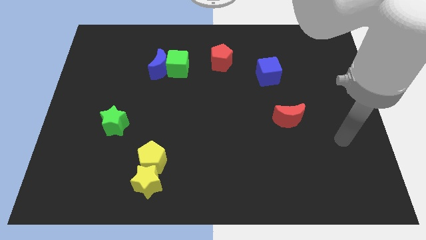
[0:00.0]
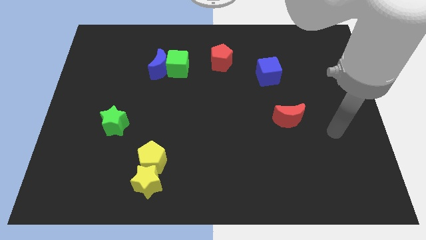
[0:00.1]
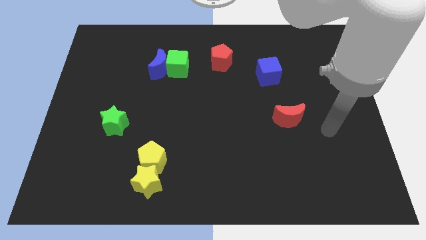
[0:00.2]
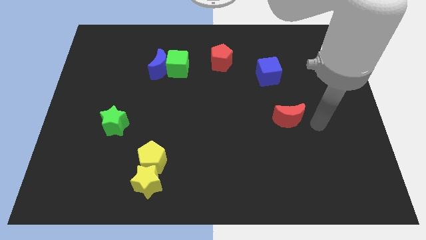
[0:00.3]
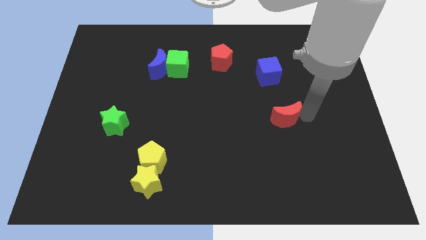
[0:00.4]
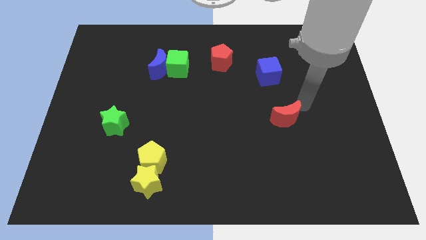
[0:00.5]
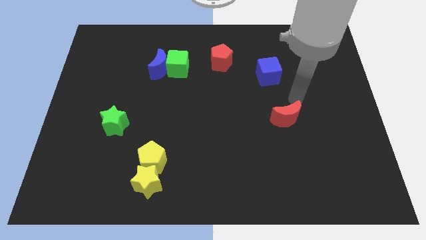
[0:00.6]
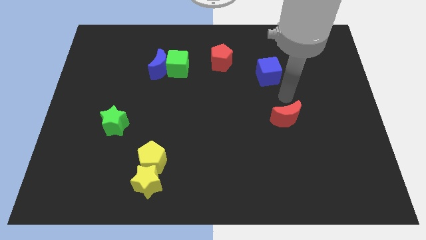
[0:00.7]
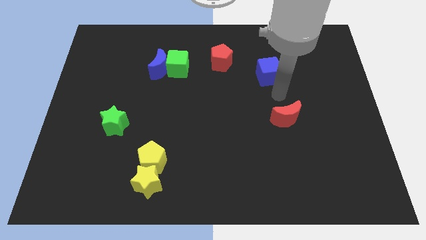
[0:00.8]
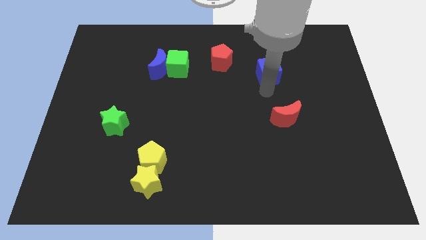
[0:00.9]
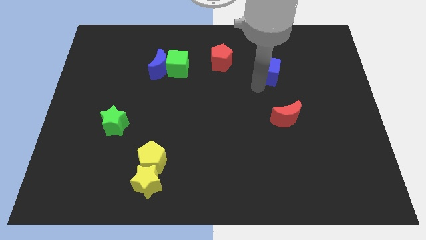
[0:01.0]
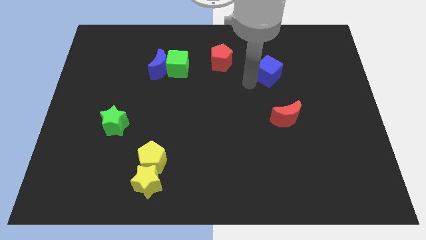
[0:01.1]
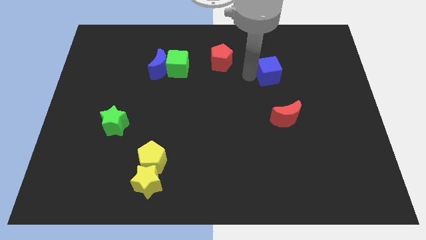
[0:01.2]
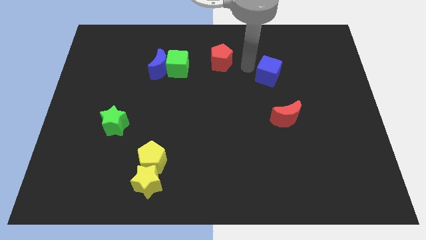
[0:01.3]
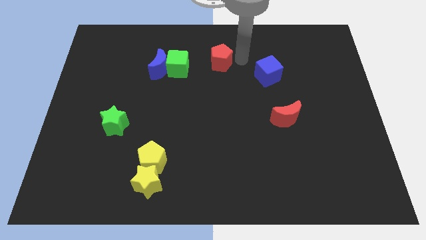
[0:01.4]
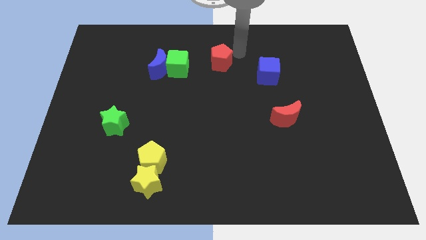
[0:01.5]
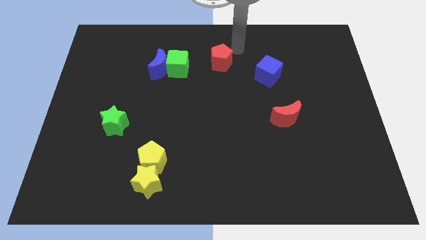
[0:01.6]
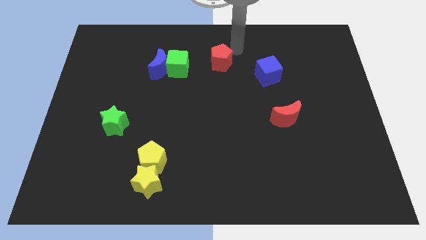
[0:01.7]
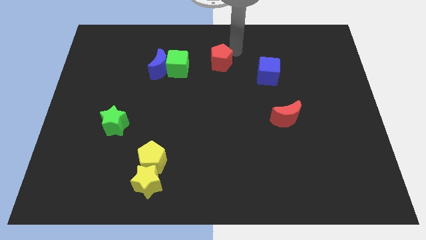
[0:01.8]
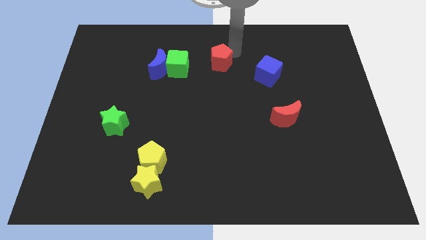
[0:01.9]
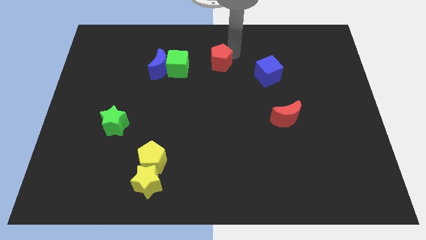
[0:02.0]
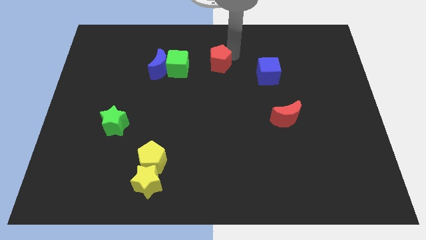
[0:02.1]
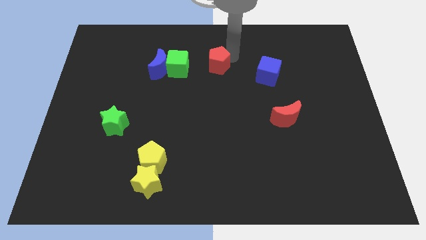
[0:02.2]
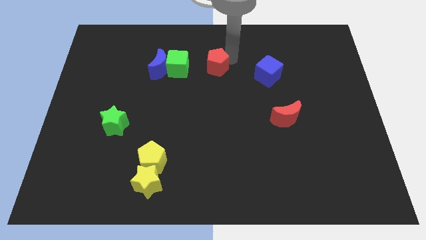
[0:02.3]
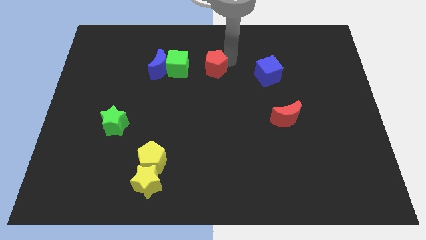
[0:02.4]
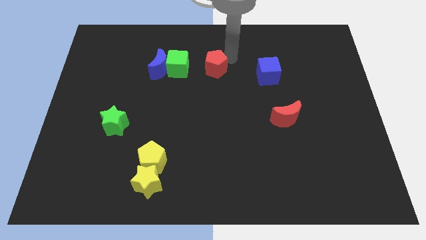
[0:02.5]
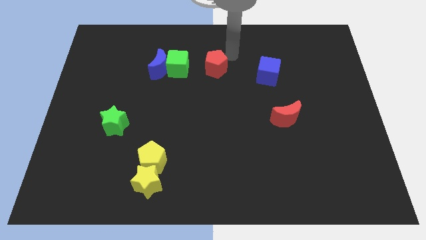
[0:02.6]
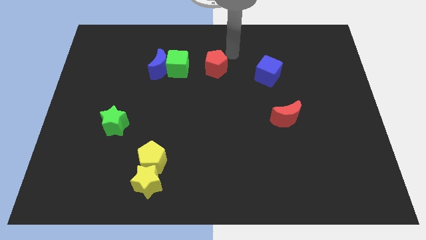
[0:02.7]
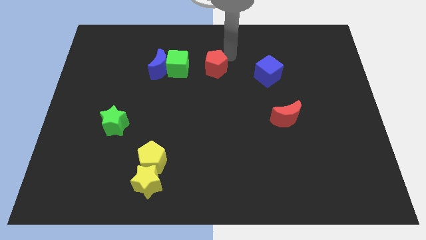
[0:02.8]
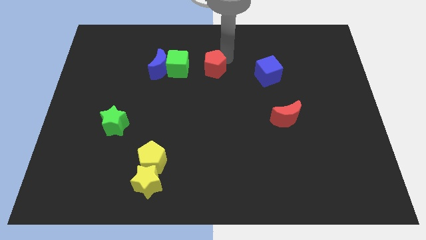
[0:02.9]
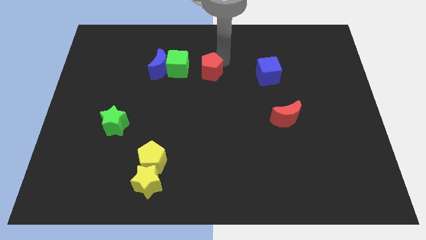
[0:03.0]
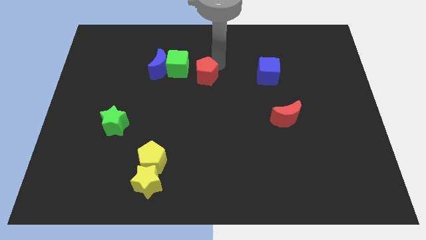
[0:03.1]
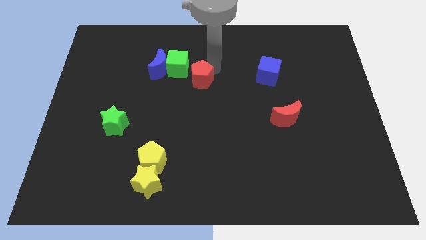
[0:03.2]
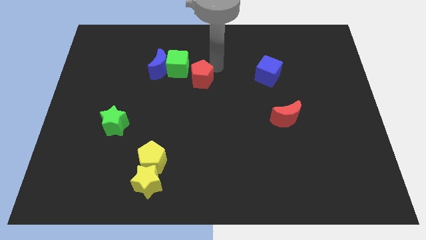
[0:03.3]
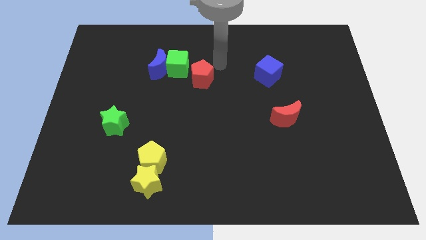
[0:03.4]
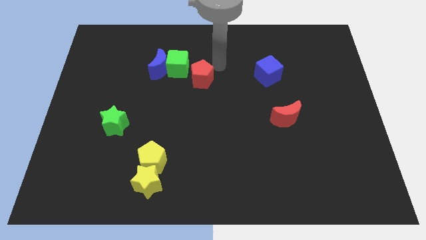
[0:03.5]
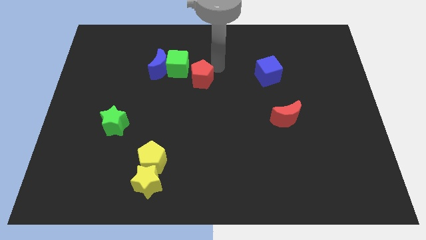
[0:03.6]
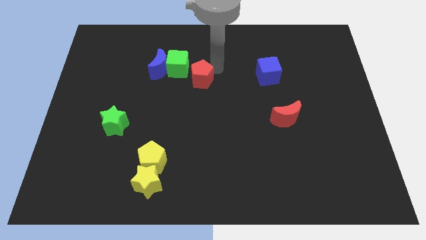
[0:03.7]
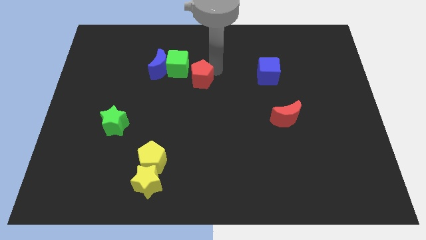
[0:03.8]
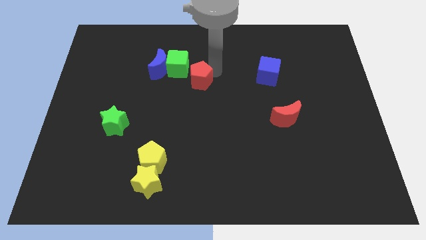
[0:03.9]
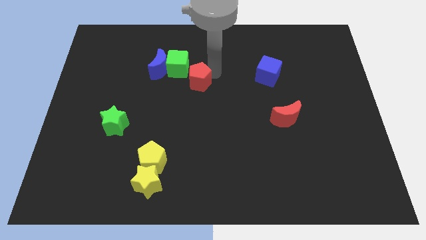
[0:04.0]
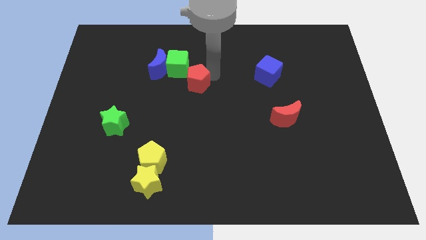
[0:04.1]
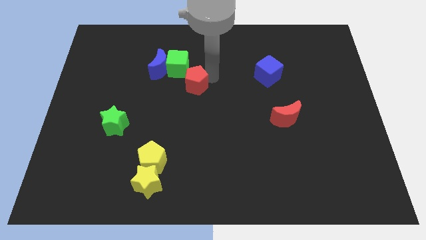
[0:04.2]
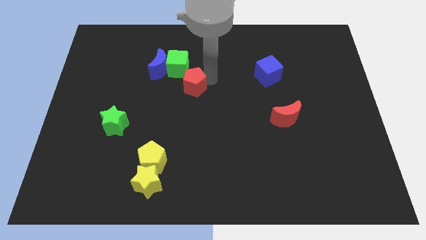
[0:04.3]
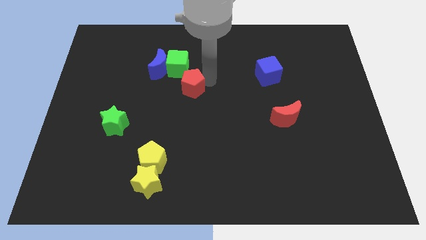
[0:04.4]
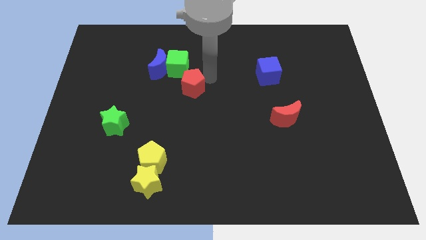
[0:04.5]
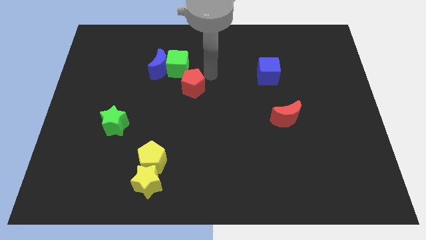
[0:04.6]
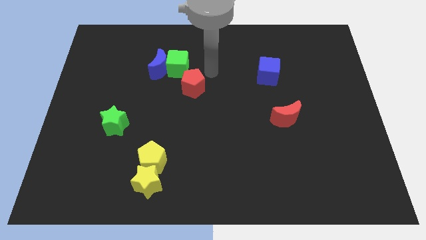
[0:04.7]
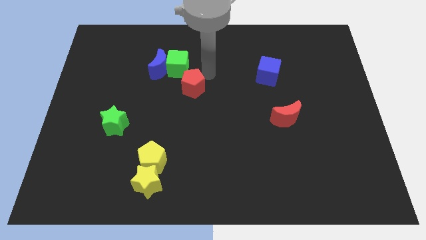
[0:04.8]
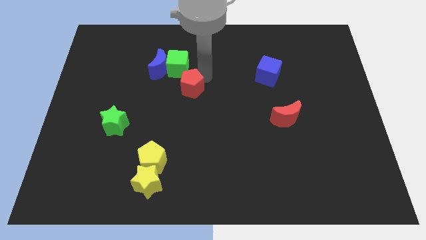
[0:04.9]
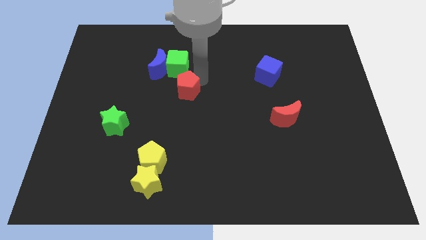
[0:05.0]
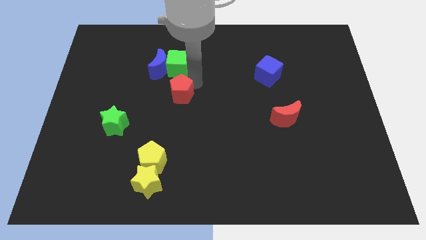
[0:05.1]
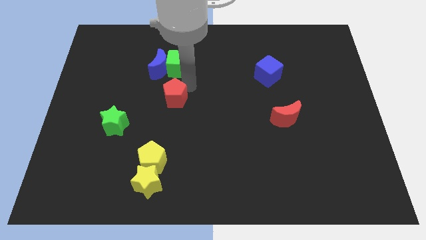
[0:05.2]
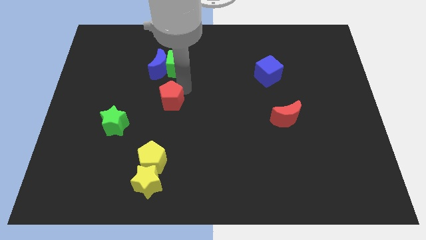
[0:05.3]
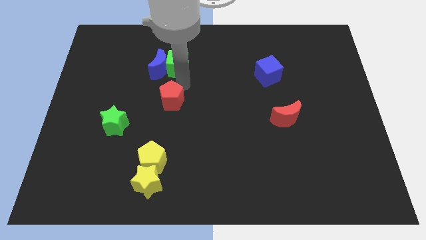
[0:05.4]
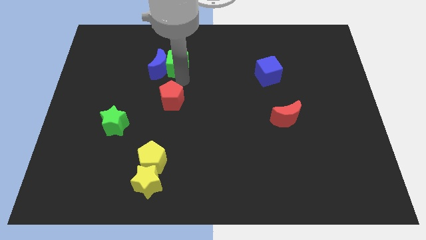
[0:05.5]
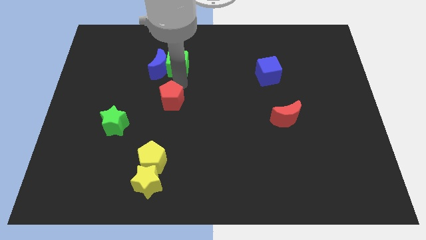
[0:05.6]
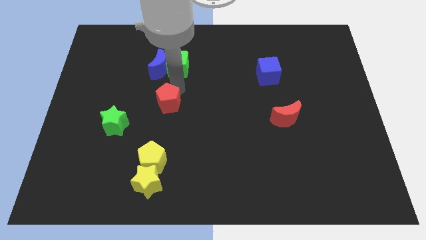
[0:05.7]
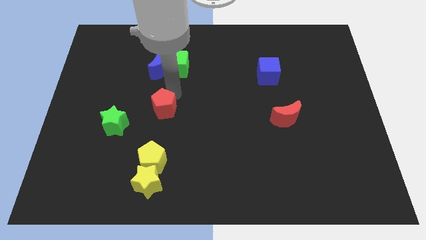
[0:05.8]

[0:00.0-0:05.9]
push the red pentagon right of the green star

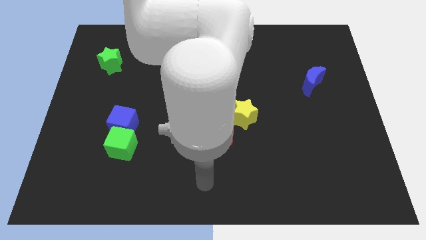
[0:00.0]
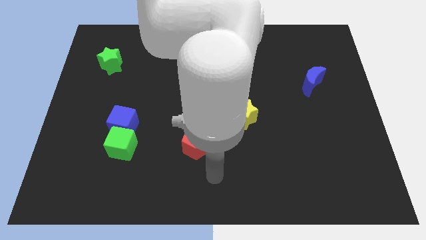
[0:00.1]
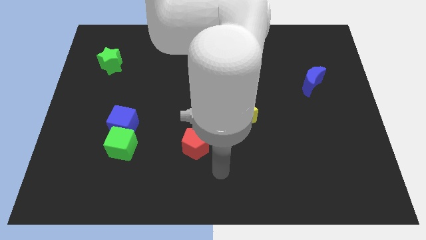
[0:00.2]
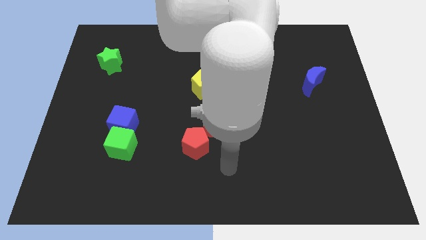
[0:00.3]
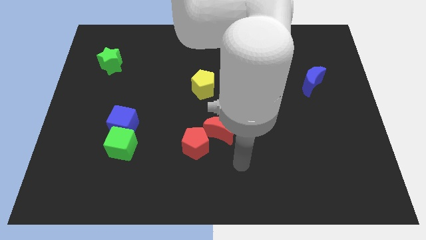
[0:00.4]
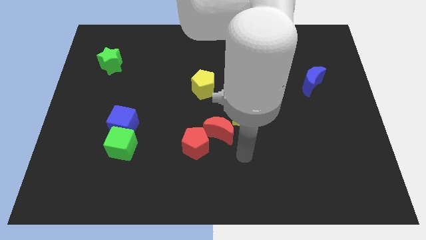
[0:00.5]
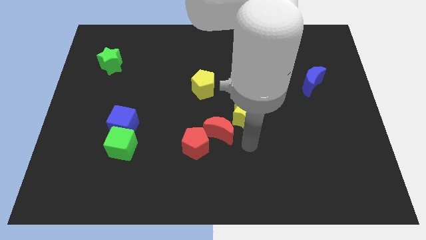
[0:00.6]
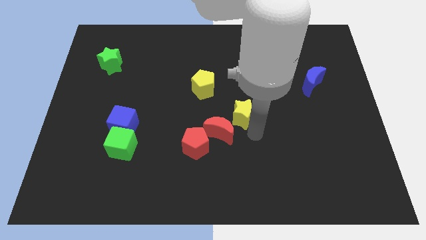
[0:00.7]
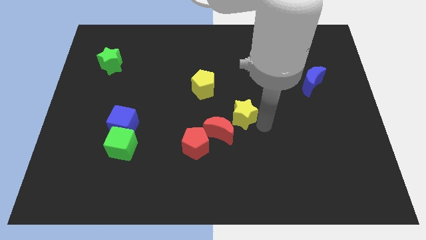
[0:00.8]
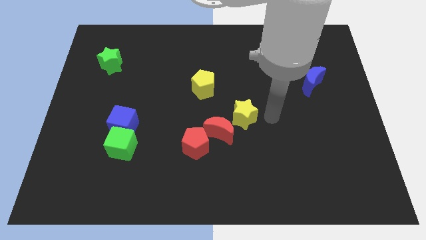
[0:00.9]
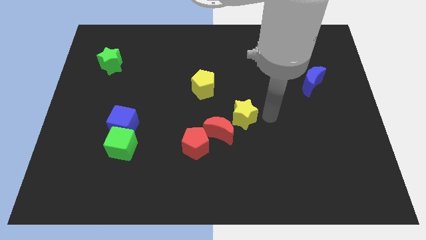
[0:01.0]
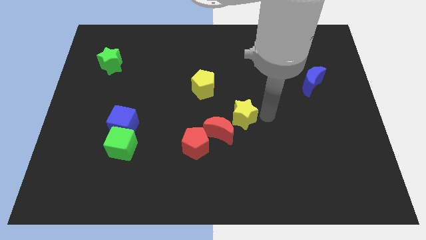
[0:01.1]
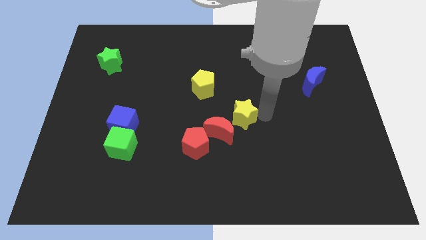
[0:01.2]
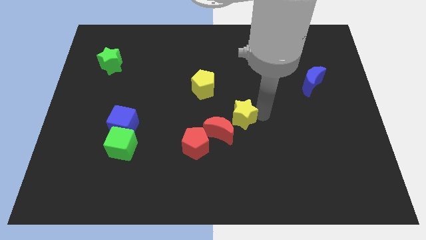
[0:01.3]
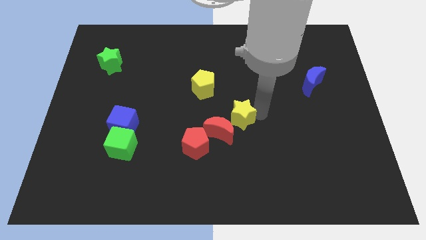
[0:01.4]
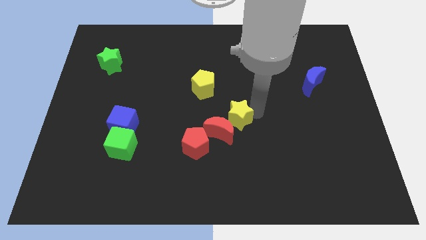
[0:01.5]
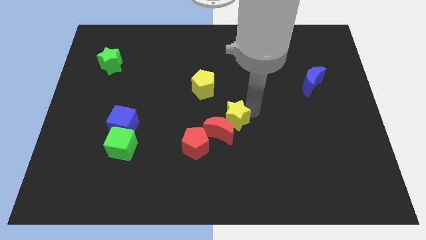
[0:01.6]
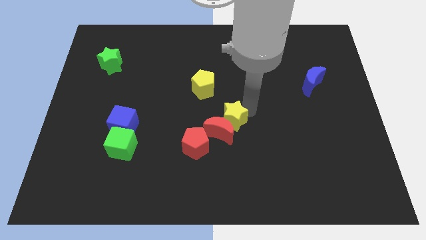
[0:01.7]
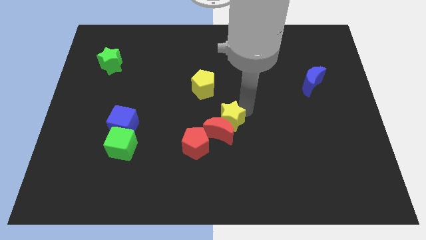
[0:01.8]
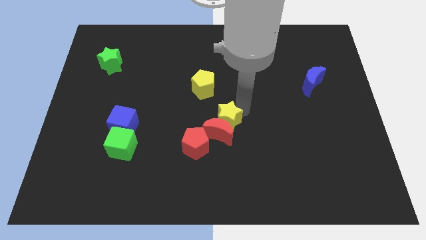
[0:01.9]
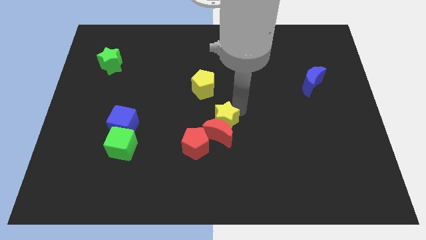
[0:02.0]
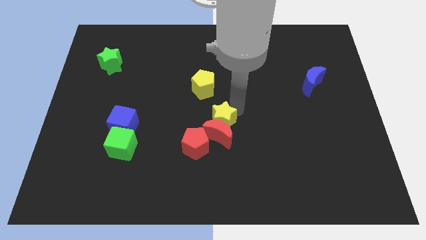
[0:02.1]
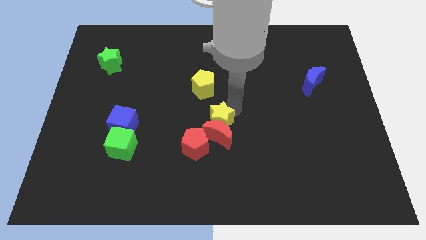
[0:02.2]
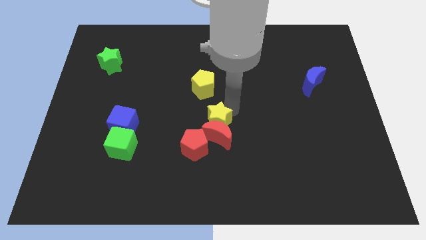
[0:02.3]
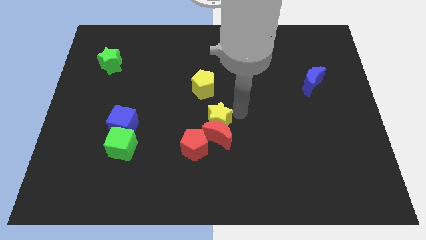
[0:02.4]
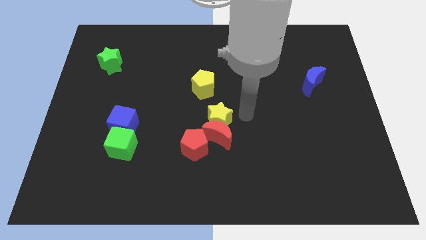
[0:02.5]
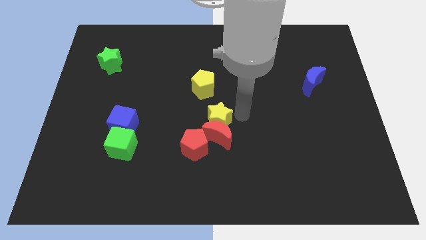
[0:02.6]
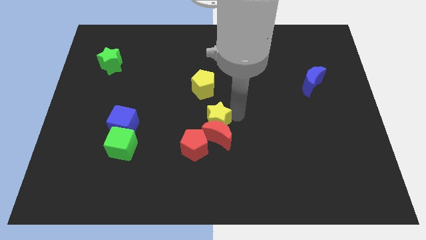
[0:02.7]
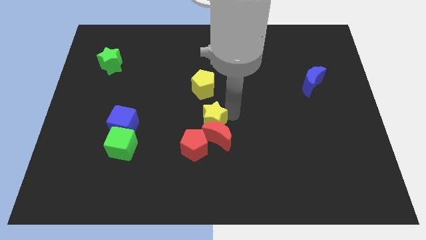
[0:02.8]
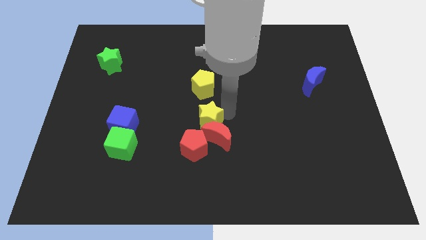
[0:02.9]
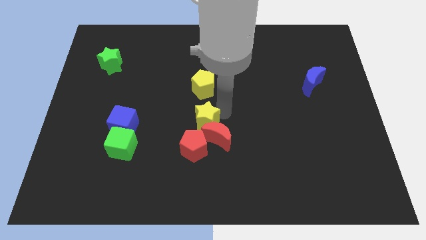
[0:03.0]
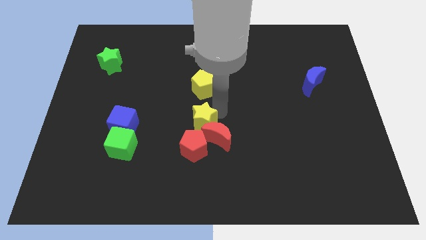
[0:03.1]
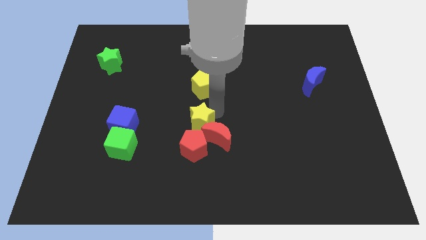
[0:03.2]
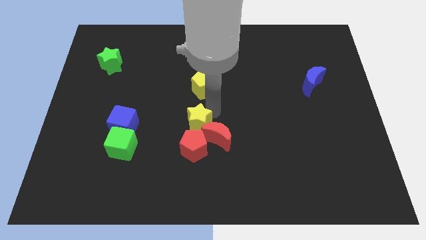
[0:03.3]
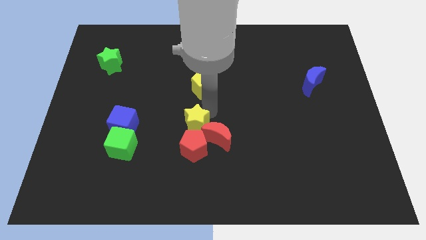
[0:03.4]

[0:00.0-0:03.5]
put the yellow star diagonally up and to the left of the red pentagon
